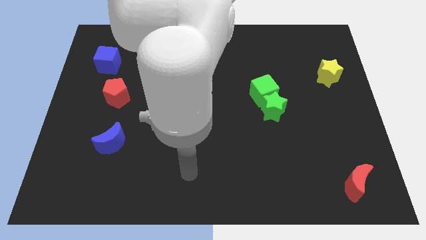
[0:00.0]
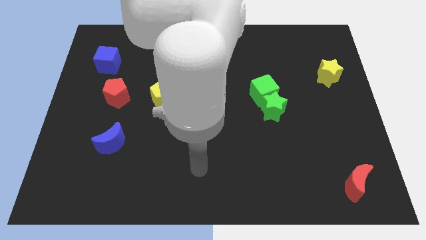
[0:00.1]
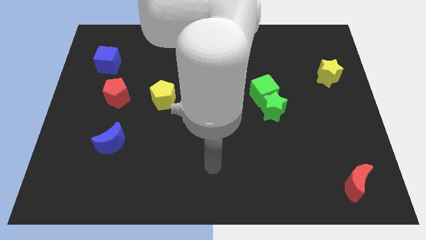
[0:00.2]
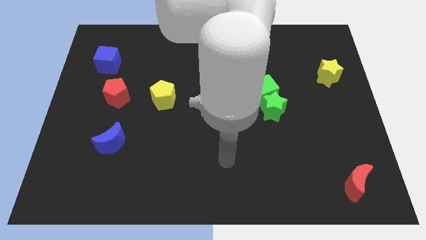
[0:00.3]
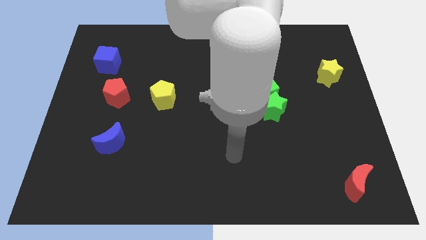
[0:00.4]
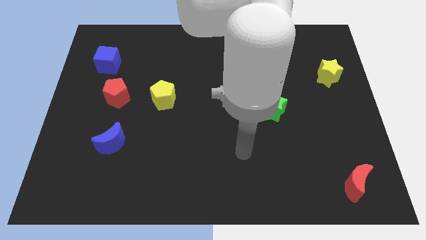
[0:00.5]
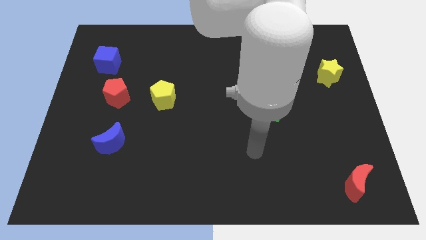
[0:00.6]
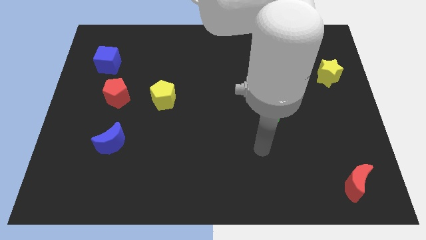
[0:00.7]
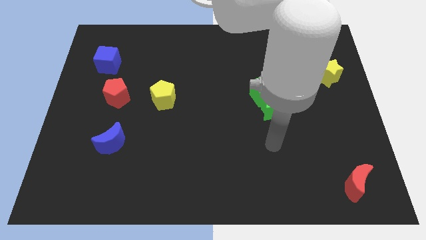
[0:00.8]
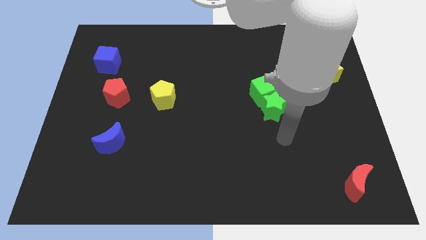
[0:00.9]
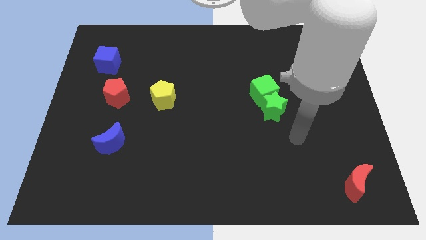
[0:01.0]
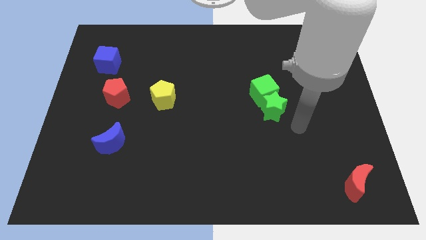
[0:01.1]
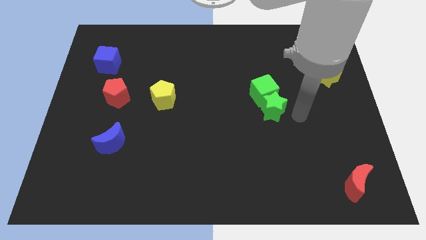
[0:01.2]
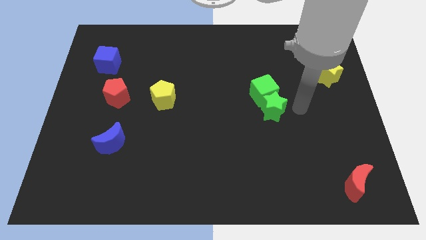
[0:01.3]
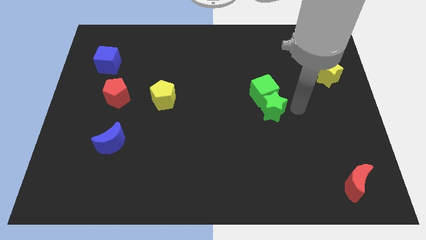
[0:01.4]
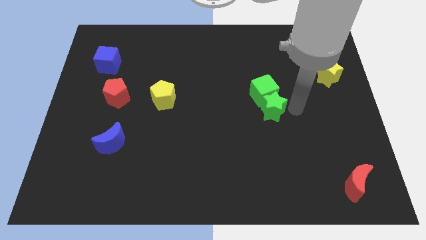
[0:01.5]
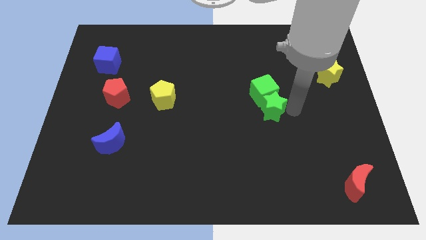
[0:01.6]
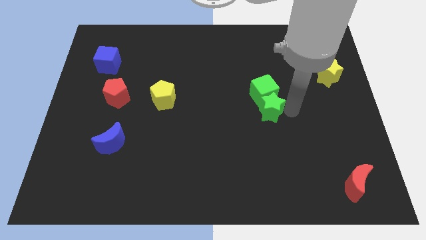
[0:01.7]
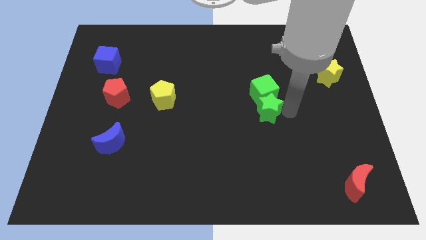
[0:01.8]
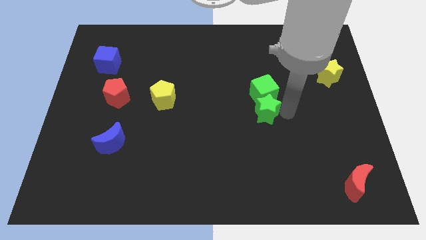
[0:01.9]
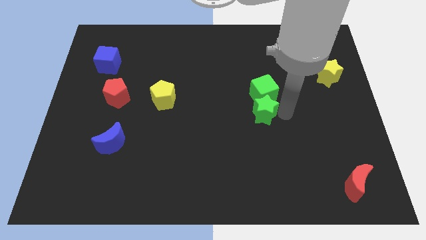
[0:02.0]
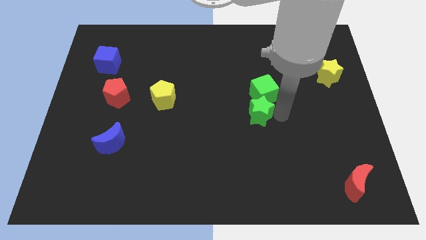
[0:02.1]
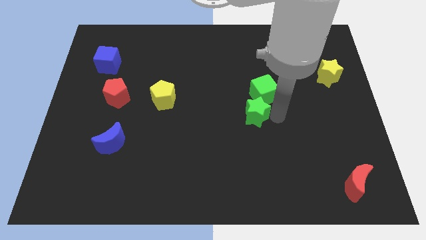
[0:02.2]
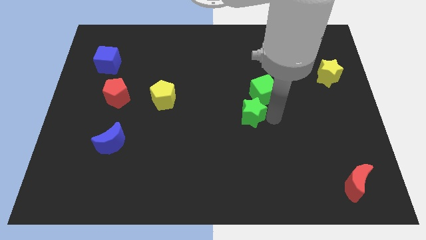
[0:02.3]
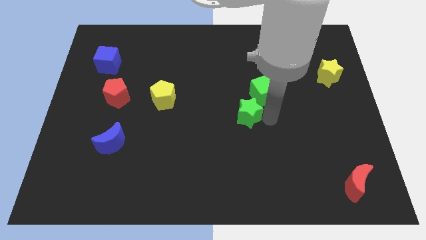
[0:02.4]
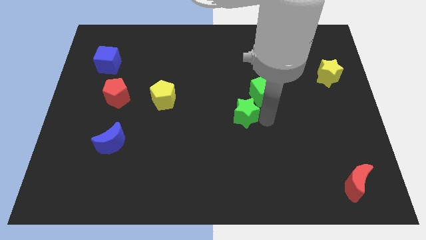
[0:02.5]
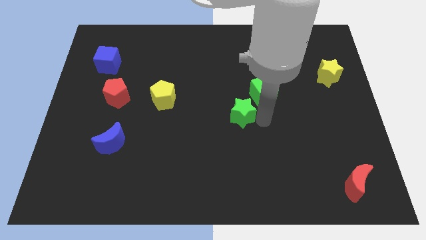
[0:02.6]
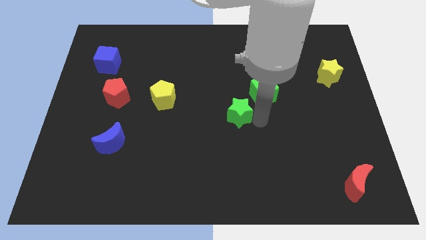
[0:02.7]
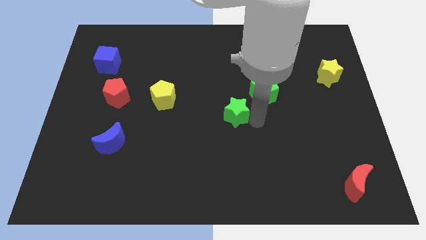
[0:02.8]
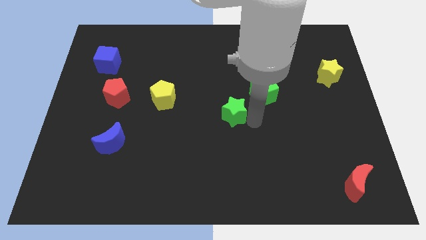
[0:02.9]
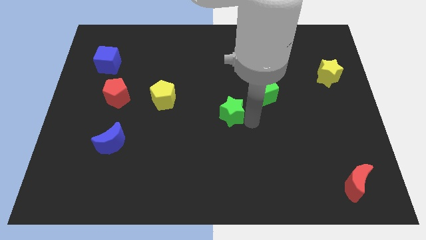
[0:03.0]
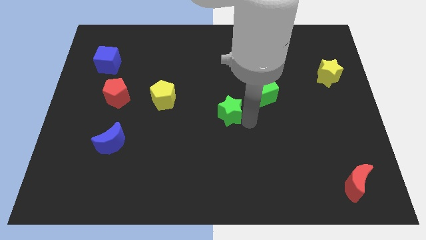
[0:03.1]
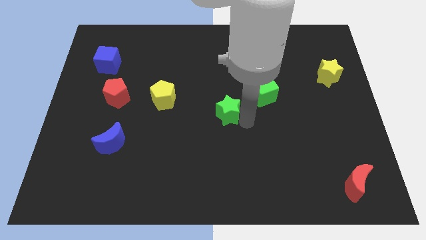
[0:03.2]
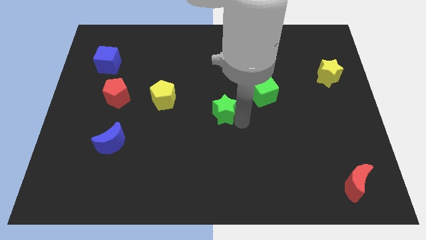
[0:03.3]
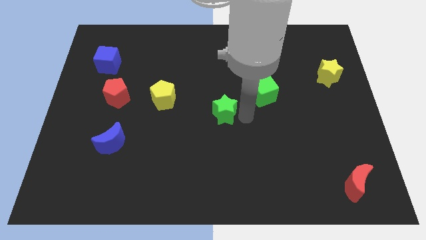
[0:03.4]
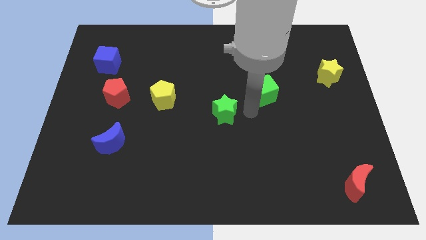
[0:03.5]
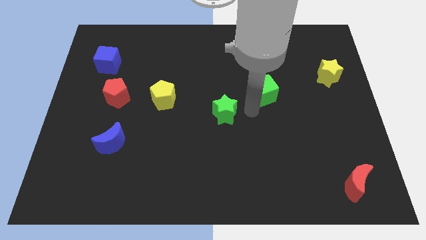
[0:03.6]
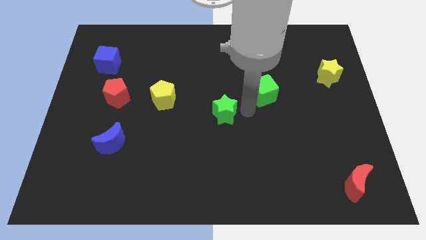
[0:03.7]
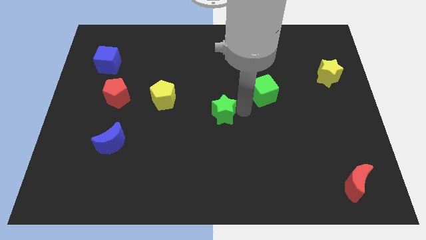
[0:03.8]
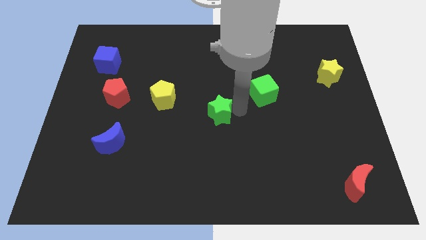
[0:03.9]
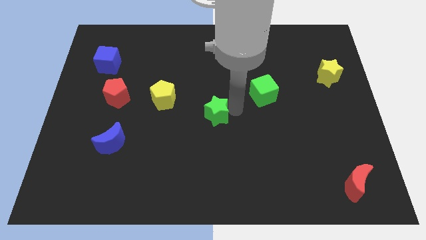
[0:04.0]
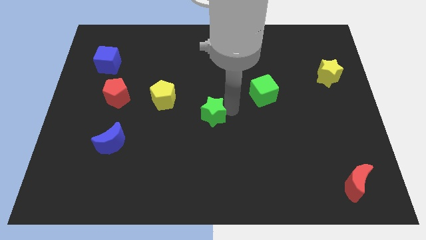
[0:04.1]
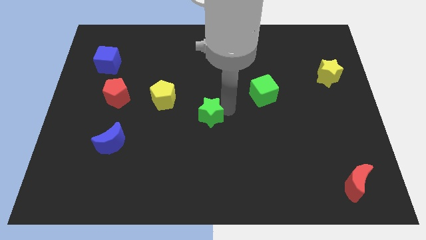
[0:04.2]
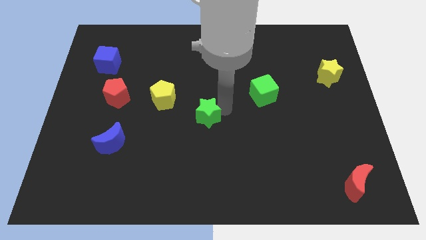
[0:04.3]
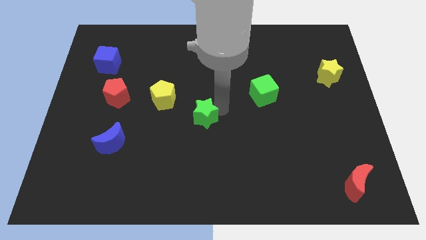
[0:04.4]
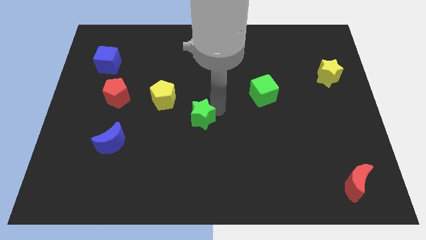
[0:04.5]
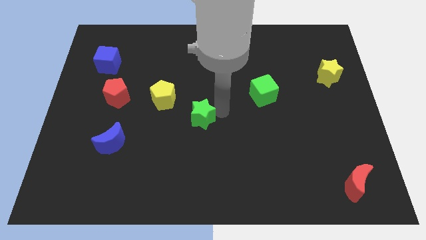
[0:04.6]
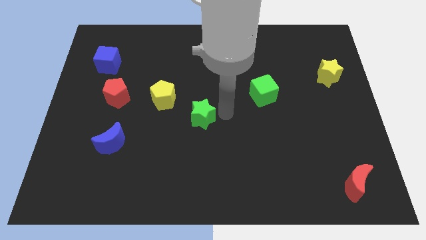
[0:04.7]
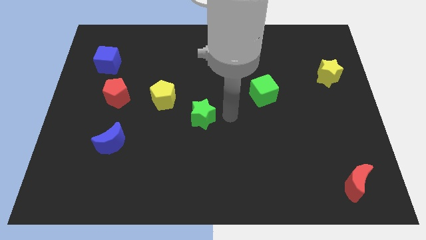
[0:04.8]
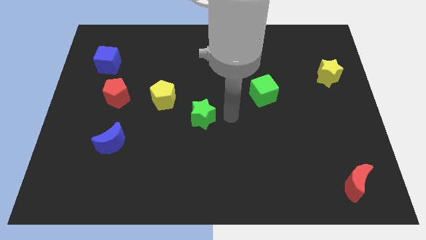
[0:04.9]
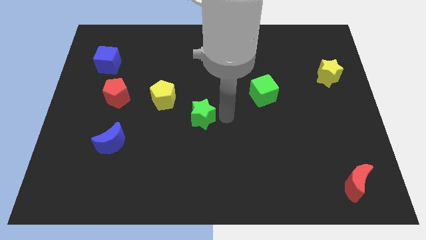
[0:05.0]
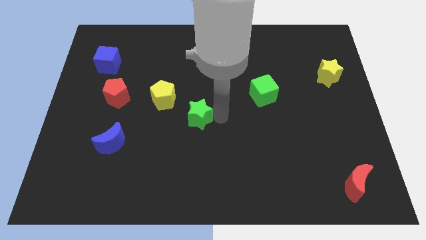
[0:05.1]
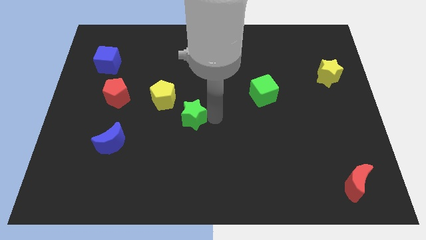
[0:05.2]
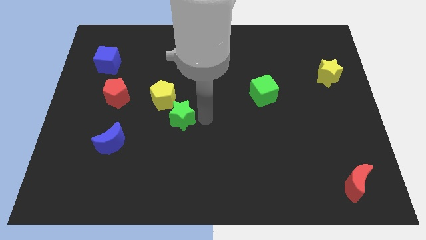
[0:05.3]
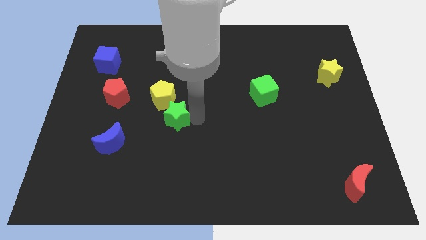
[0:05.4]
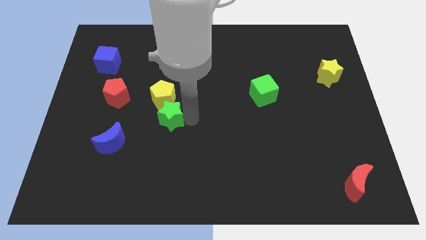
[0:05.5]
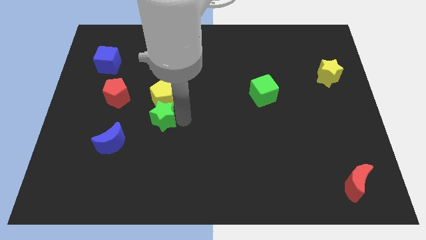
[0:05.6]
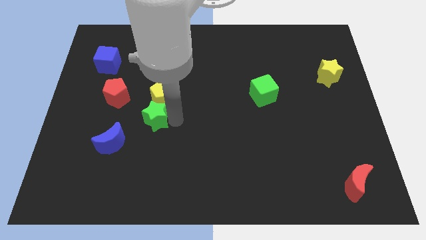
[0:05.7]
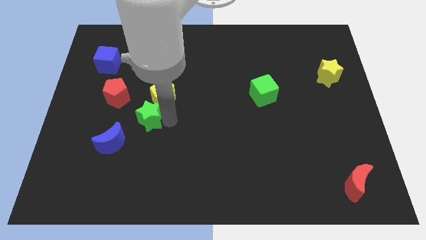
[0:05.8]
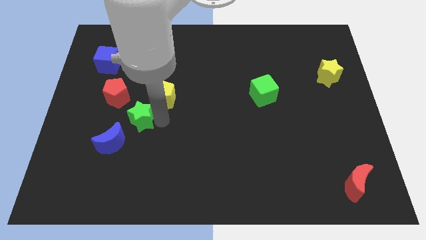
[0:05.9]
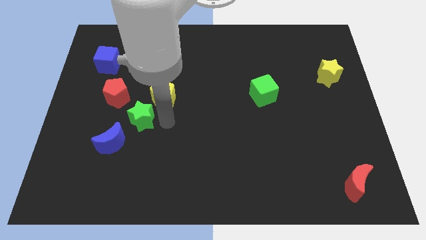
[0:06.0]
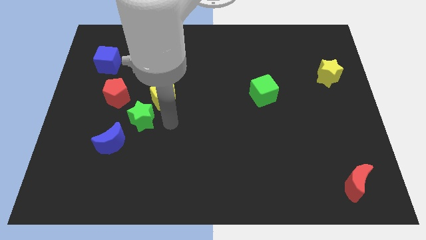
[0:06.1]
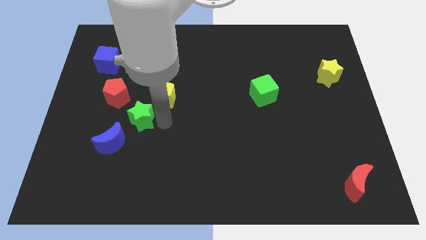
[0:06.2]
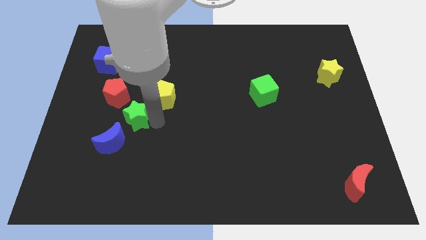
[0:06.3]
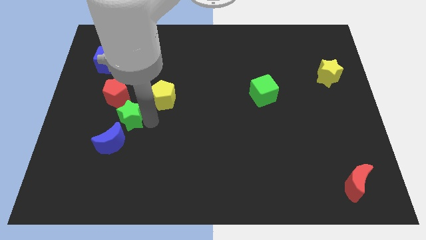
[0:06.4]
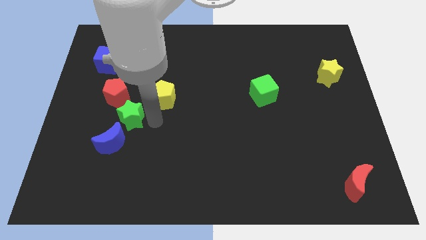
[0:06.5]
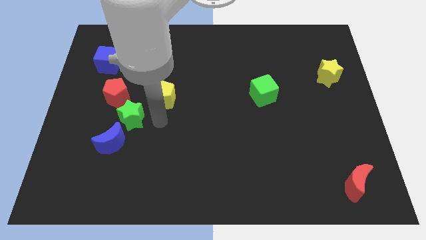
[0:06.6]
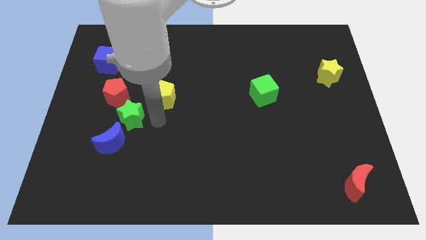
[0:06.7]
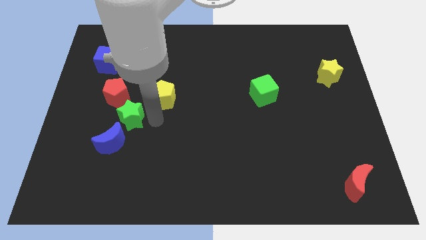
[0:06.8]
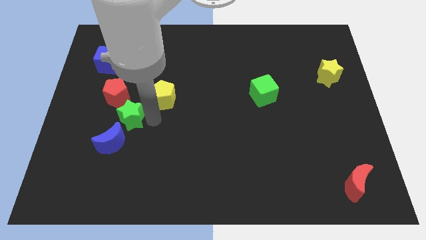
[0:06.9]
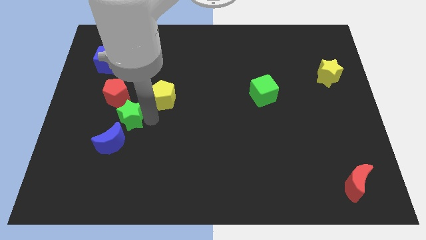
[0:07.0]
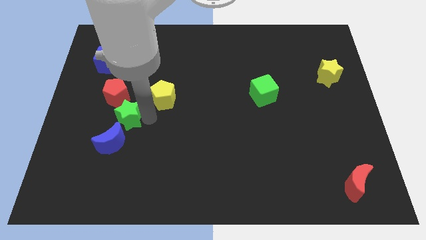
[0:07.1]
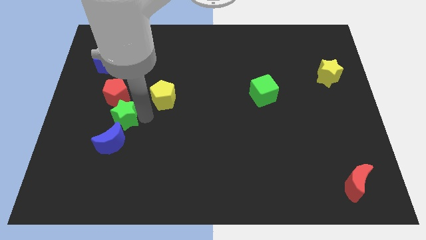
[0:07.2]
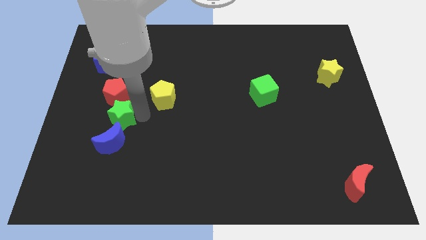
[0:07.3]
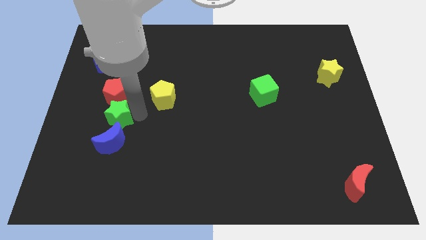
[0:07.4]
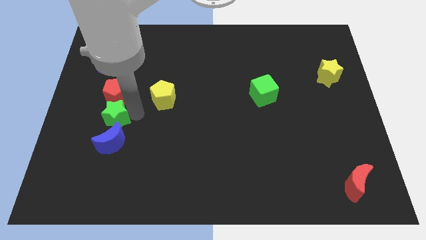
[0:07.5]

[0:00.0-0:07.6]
push the green star to the top left of the blue moon
